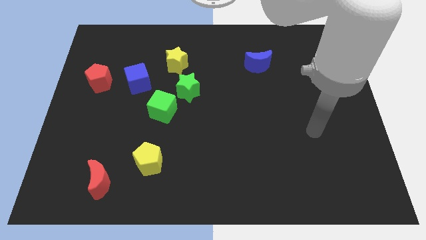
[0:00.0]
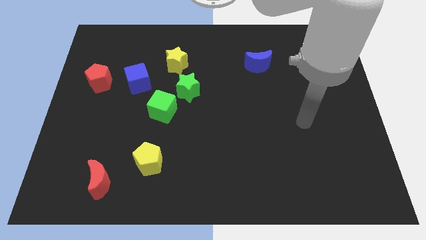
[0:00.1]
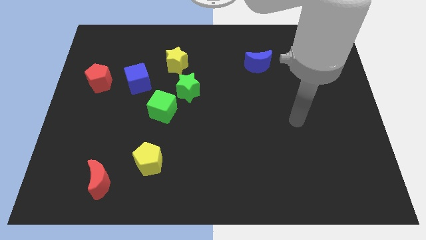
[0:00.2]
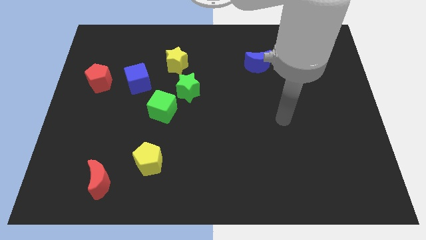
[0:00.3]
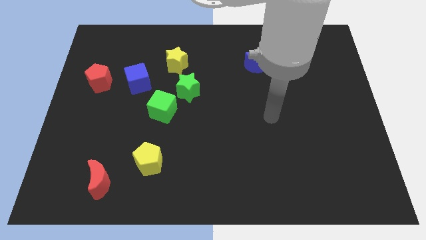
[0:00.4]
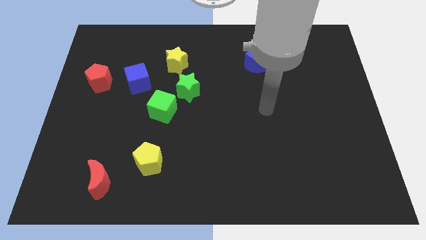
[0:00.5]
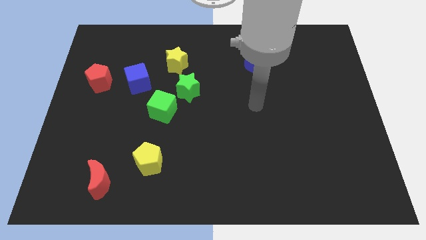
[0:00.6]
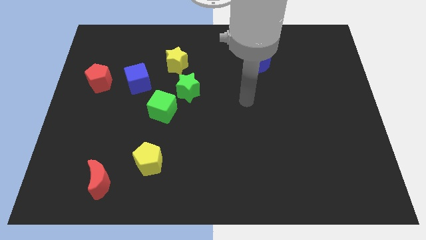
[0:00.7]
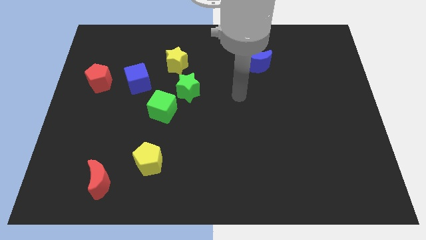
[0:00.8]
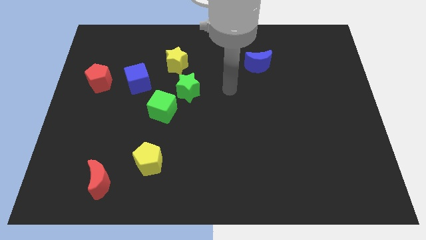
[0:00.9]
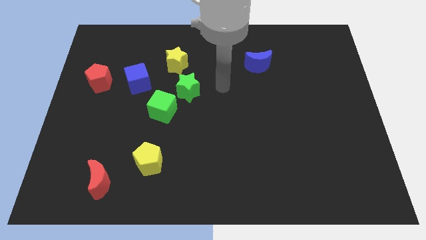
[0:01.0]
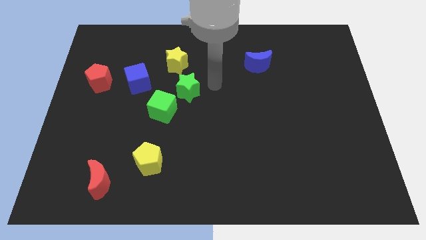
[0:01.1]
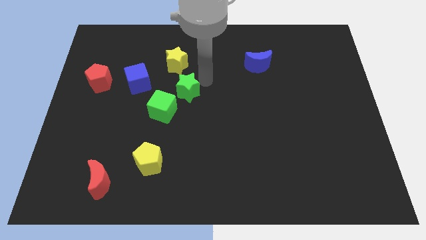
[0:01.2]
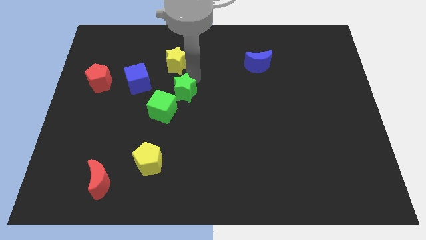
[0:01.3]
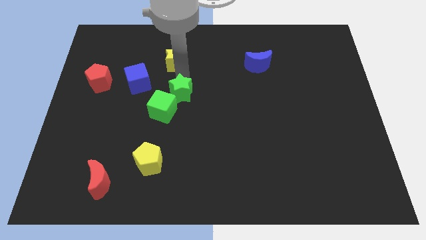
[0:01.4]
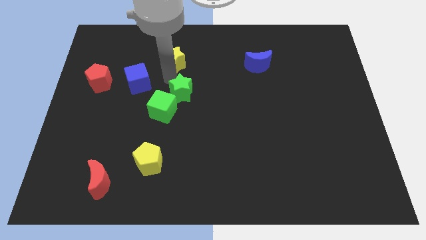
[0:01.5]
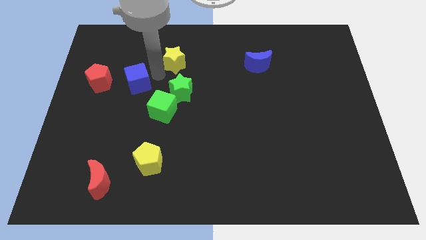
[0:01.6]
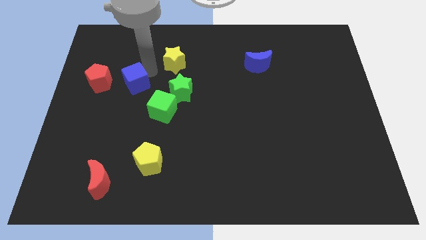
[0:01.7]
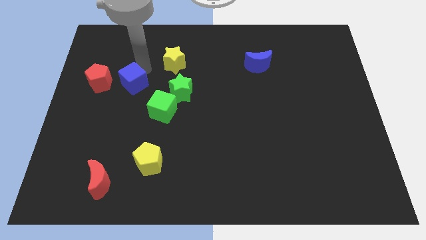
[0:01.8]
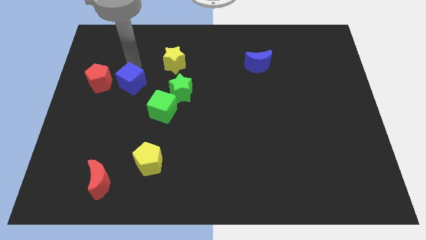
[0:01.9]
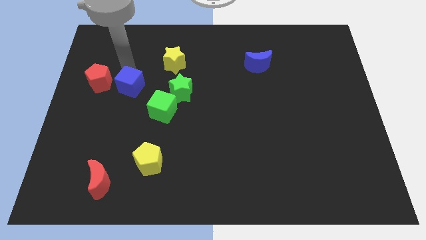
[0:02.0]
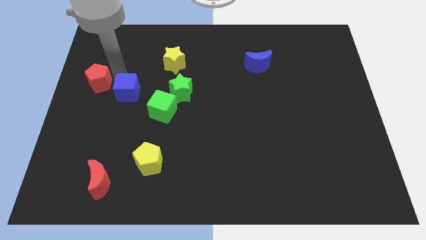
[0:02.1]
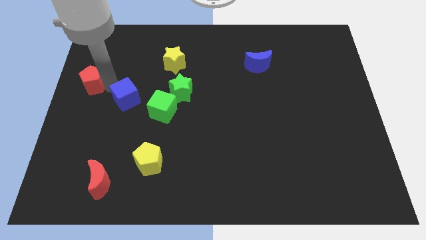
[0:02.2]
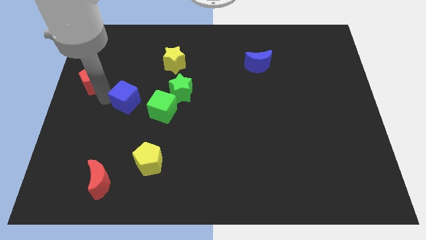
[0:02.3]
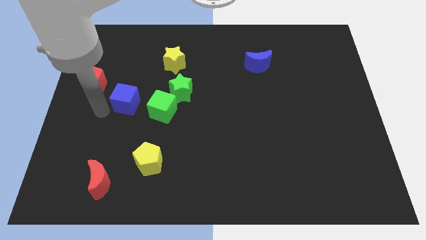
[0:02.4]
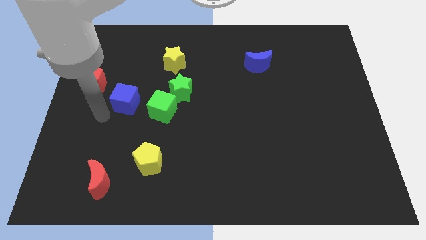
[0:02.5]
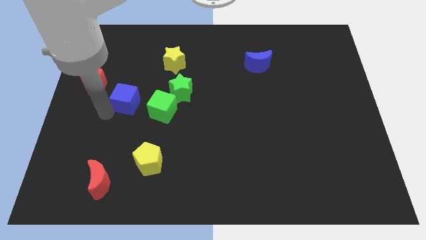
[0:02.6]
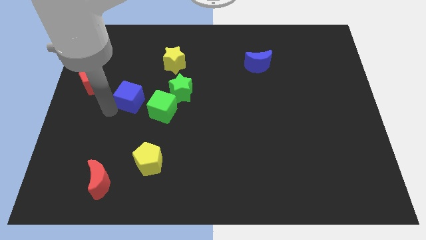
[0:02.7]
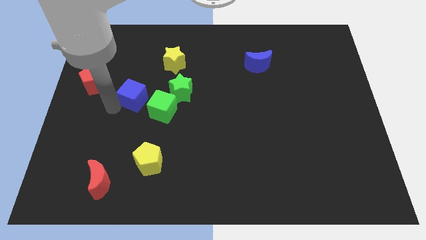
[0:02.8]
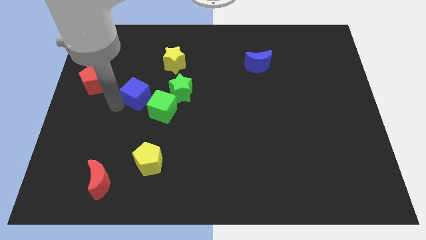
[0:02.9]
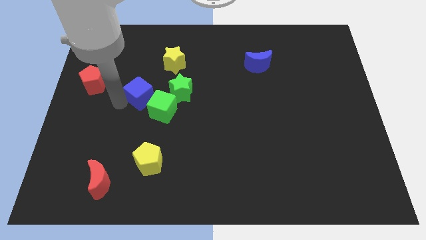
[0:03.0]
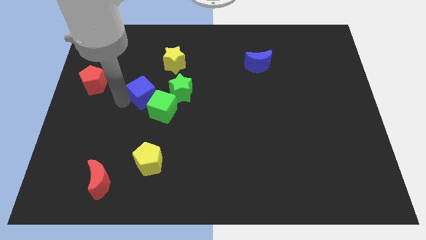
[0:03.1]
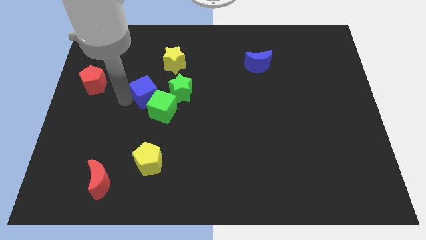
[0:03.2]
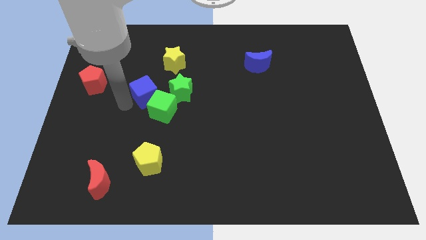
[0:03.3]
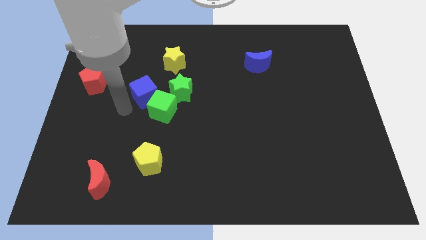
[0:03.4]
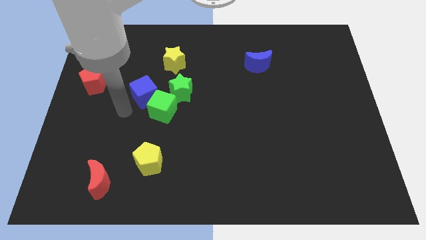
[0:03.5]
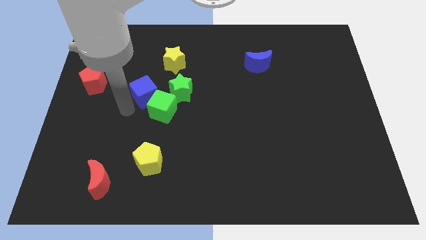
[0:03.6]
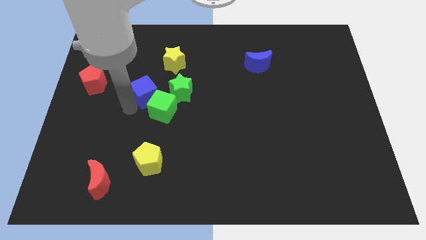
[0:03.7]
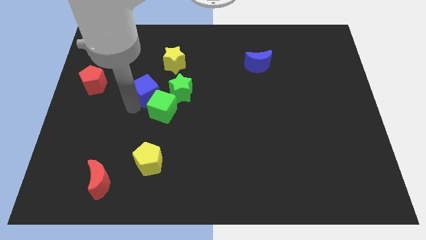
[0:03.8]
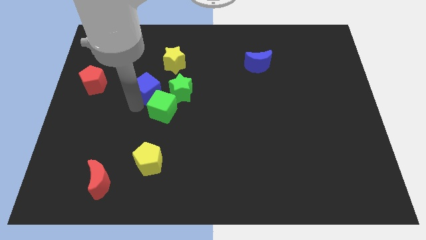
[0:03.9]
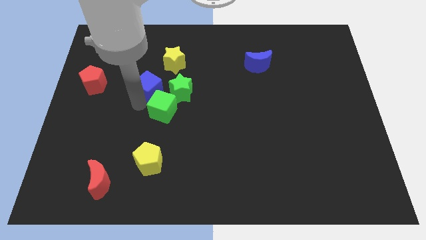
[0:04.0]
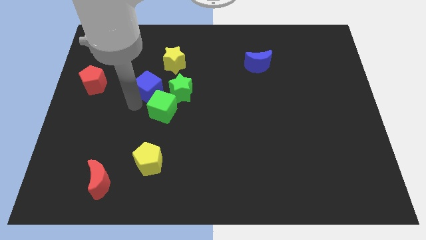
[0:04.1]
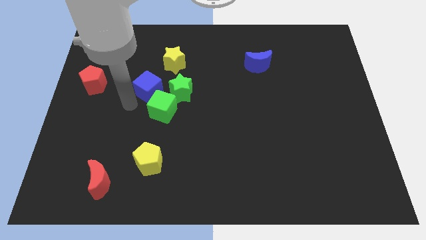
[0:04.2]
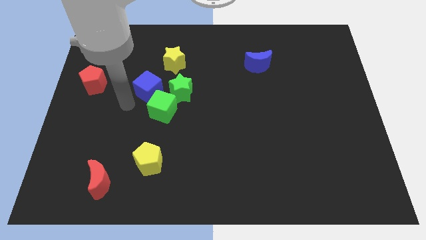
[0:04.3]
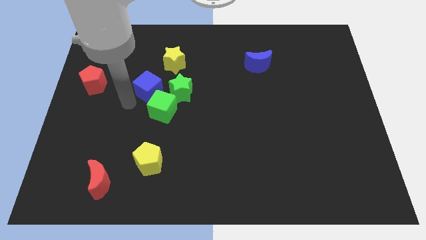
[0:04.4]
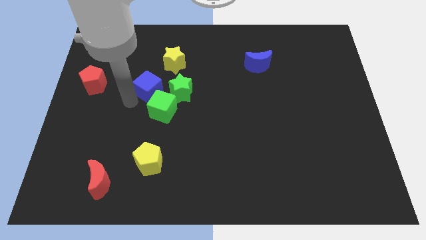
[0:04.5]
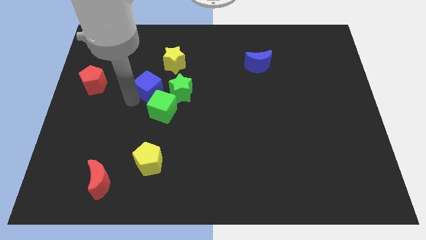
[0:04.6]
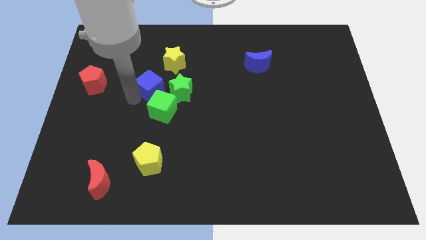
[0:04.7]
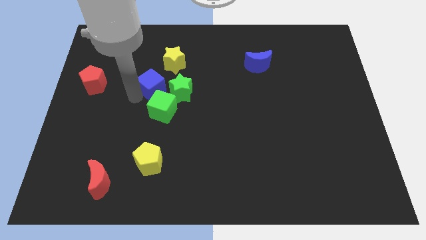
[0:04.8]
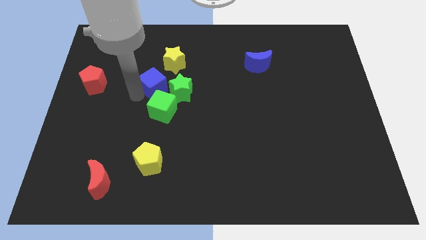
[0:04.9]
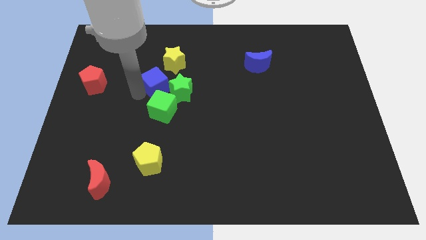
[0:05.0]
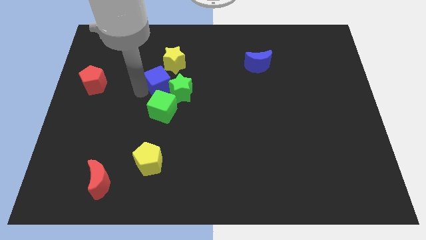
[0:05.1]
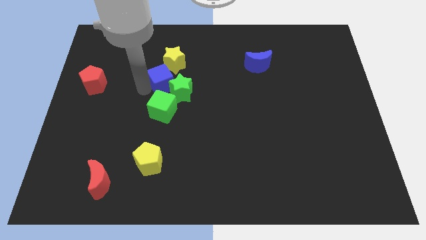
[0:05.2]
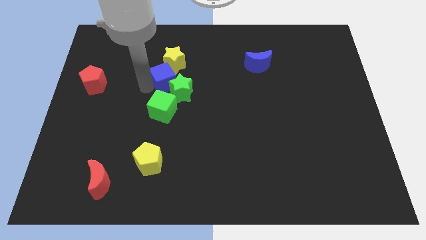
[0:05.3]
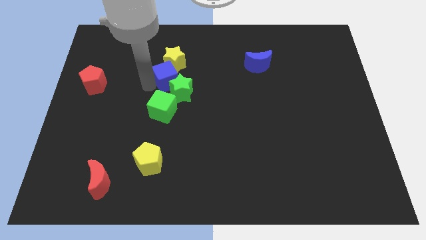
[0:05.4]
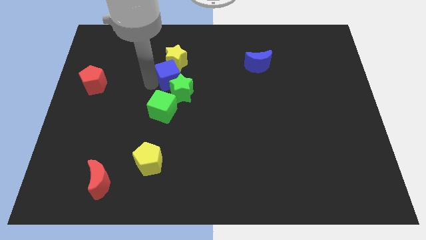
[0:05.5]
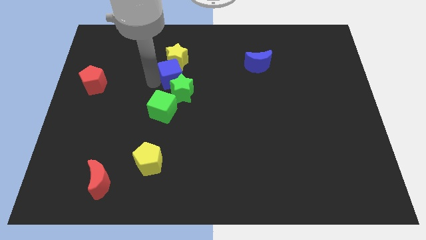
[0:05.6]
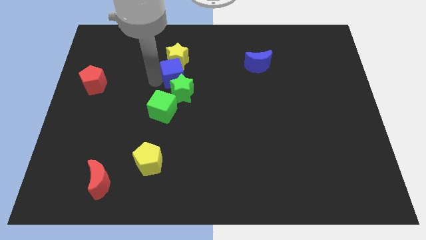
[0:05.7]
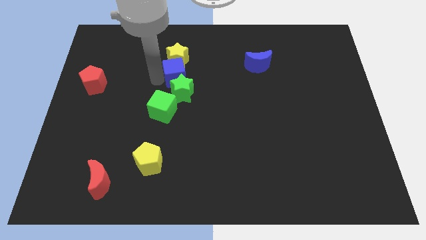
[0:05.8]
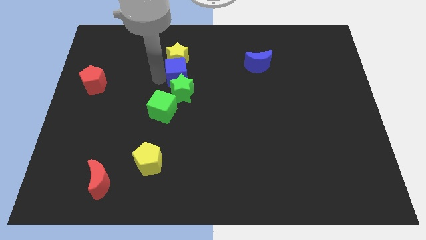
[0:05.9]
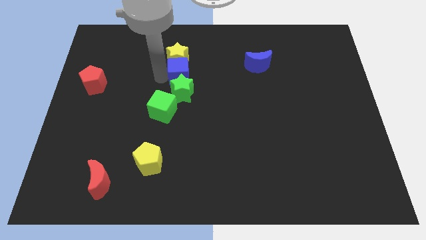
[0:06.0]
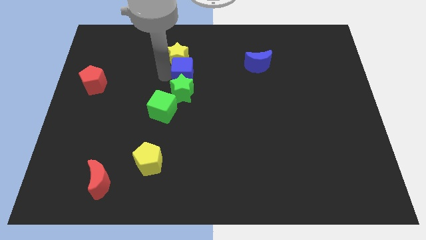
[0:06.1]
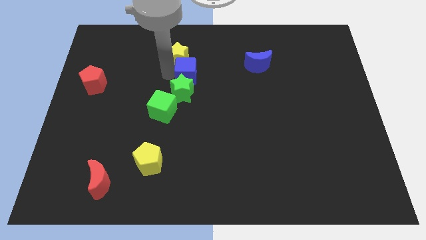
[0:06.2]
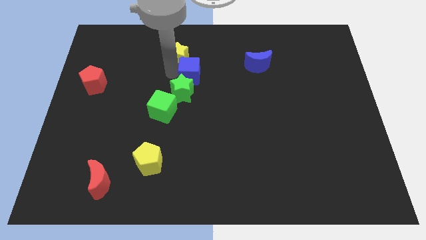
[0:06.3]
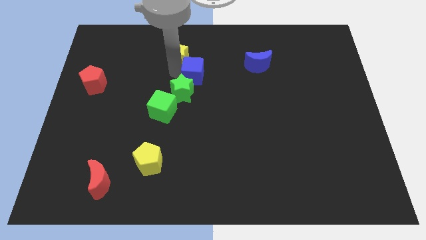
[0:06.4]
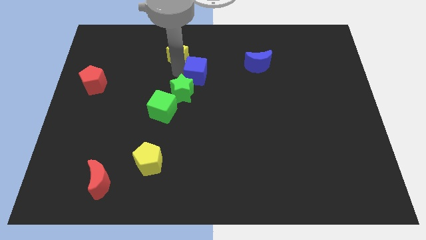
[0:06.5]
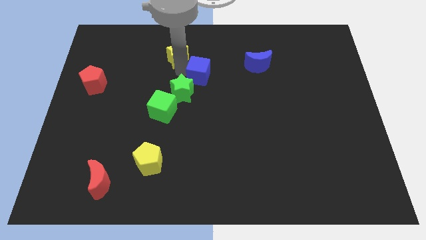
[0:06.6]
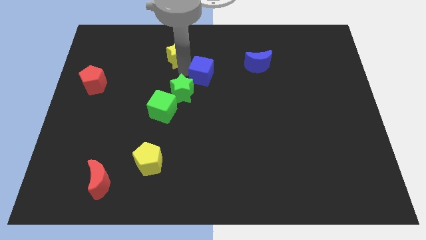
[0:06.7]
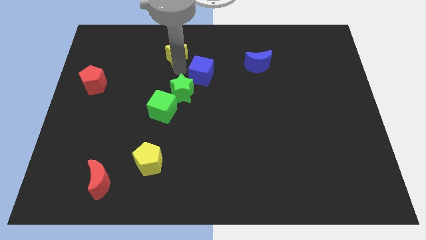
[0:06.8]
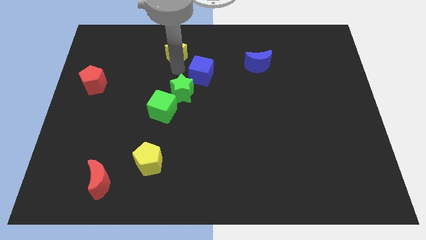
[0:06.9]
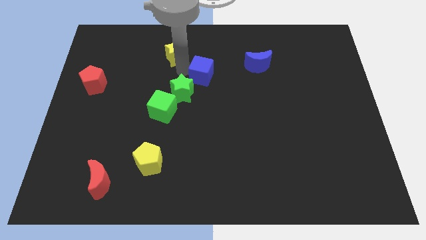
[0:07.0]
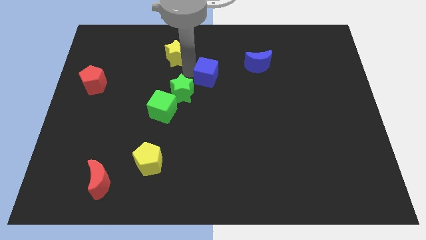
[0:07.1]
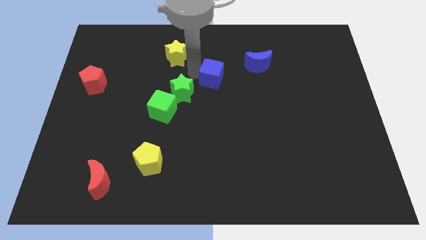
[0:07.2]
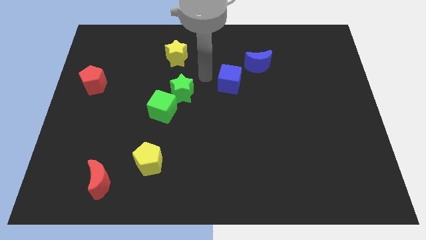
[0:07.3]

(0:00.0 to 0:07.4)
move the blue cube to the right

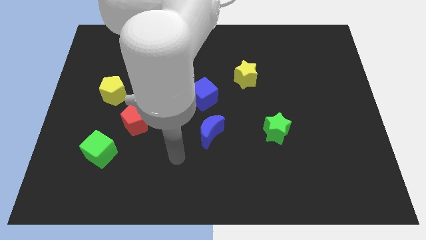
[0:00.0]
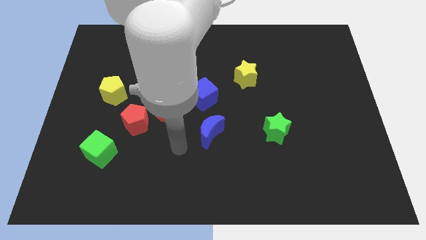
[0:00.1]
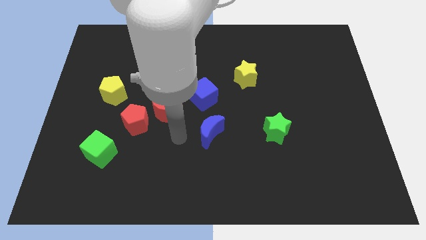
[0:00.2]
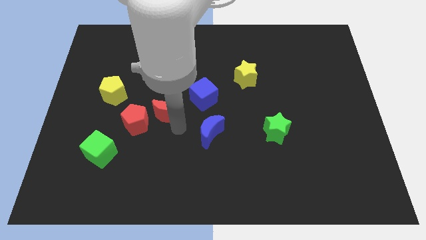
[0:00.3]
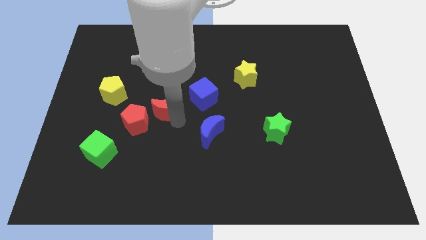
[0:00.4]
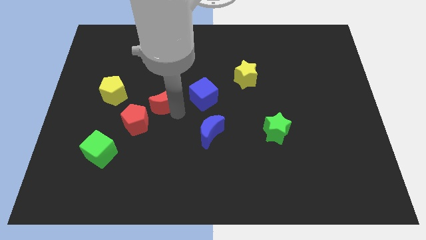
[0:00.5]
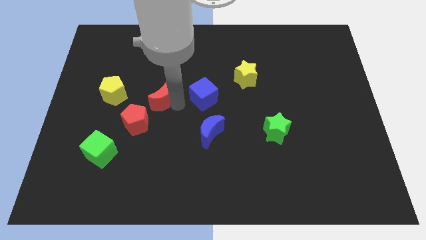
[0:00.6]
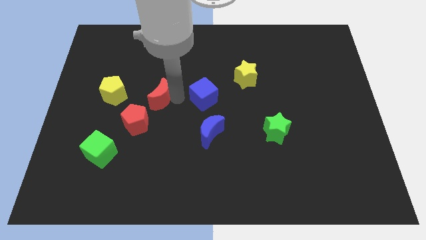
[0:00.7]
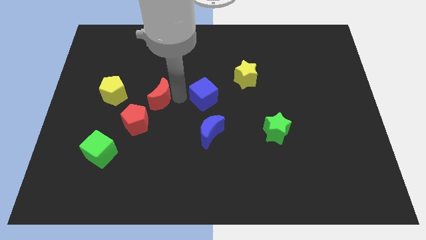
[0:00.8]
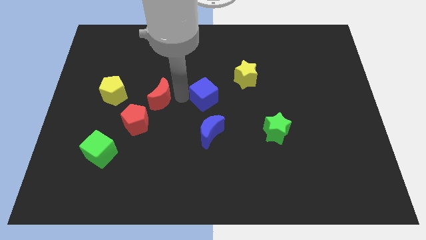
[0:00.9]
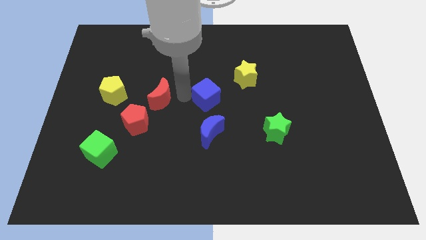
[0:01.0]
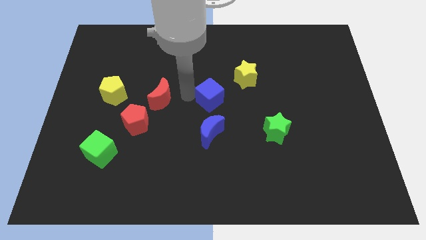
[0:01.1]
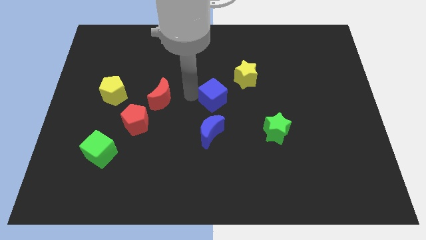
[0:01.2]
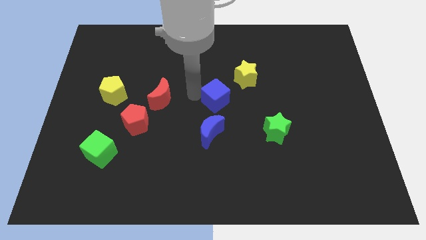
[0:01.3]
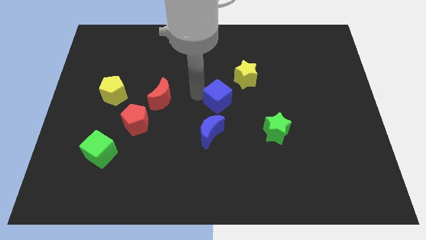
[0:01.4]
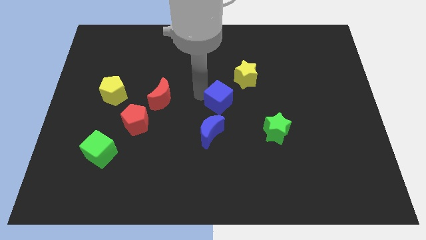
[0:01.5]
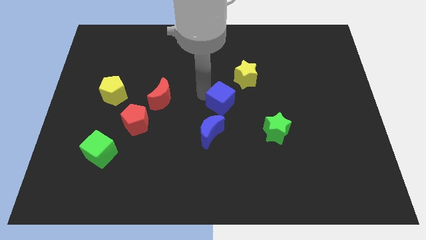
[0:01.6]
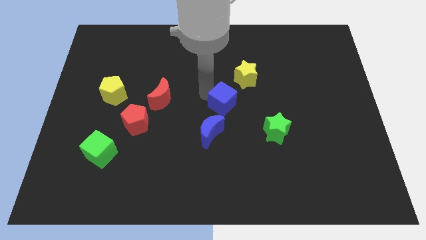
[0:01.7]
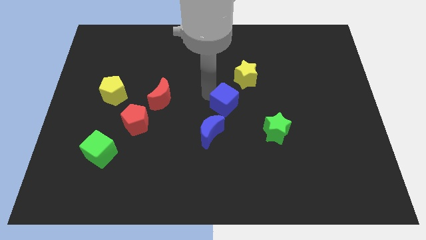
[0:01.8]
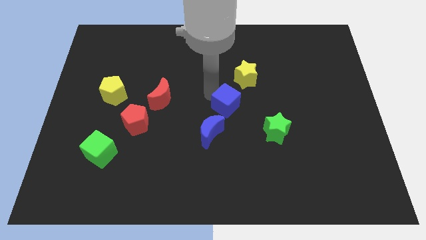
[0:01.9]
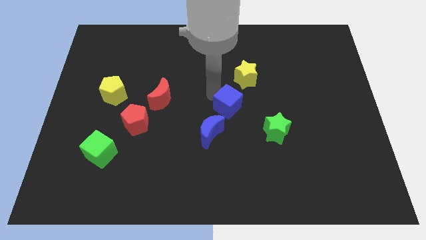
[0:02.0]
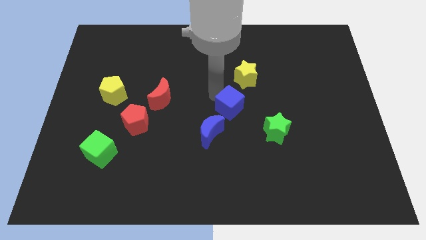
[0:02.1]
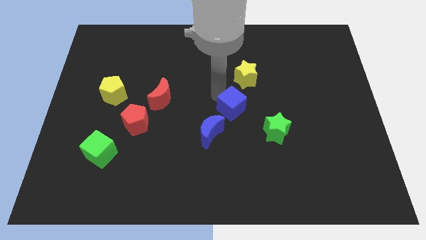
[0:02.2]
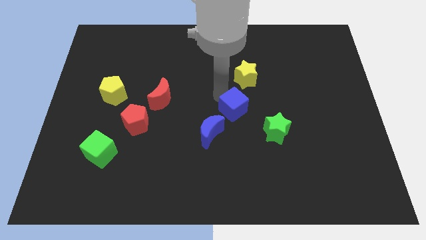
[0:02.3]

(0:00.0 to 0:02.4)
slide the blue cube right a bit
